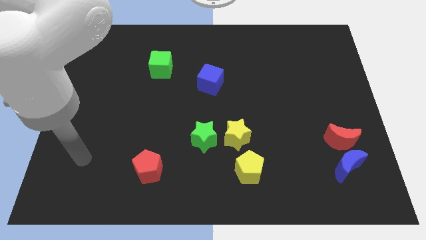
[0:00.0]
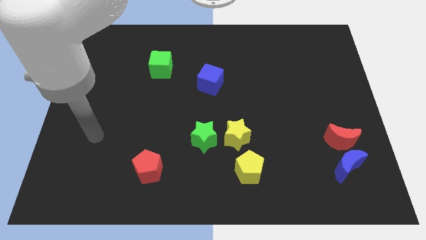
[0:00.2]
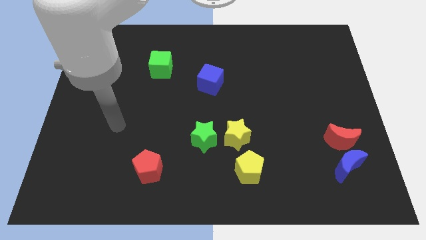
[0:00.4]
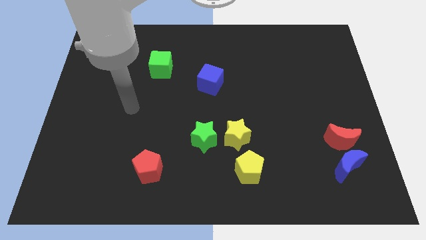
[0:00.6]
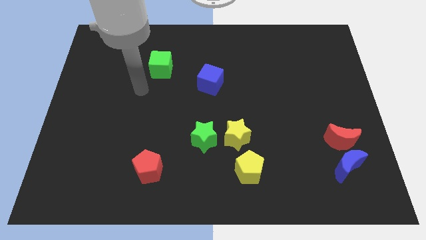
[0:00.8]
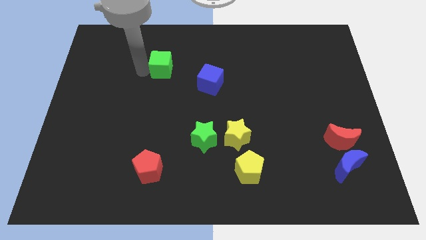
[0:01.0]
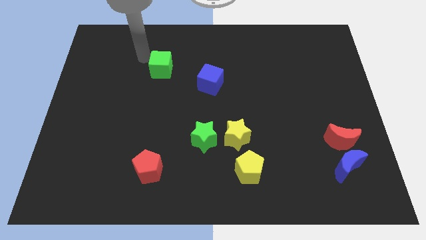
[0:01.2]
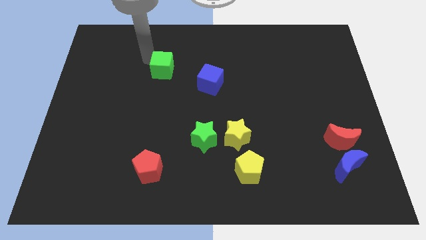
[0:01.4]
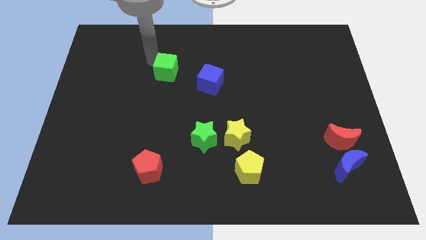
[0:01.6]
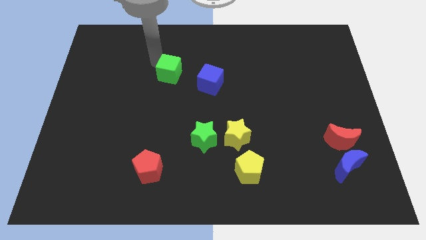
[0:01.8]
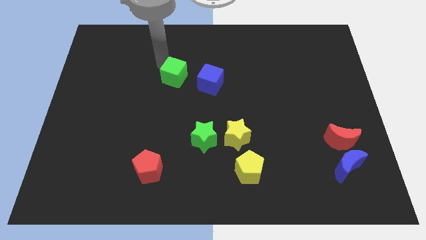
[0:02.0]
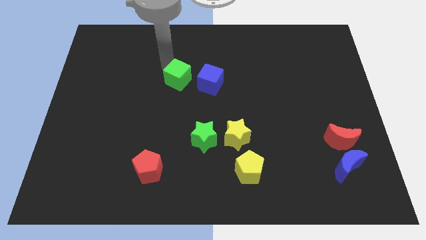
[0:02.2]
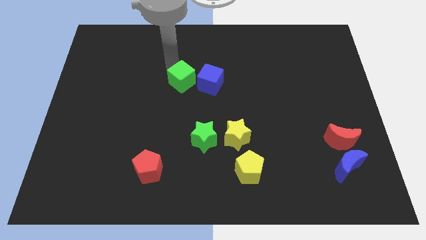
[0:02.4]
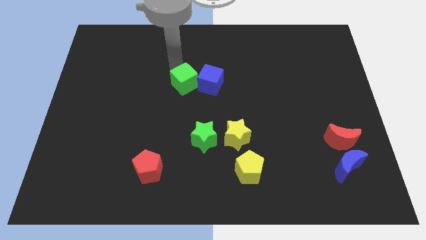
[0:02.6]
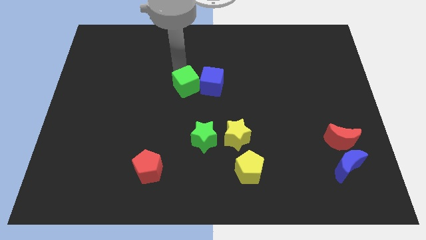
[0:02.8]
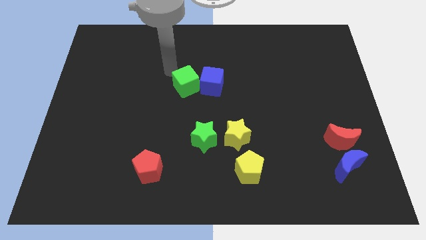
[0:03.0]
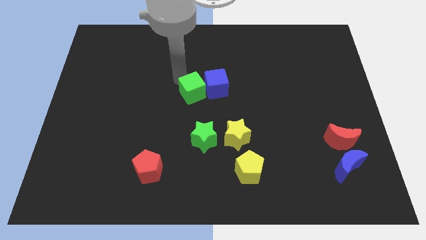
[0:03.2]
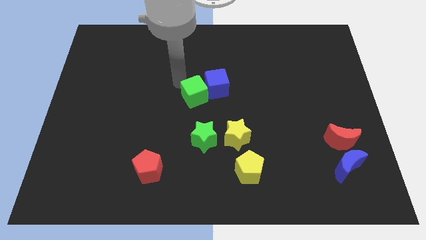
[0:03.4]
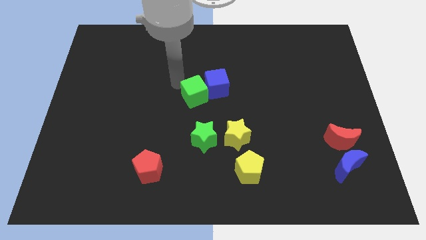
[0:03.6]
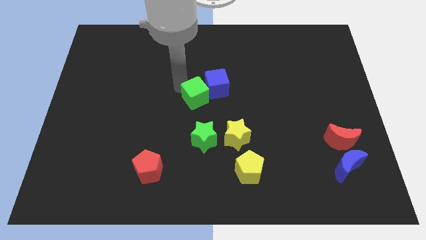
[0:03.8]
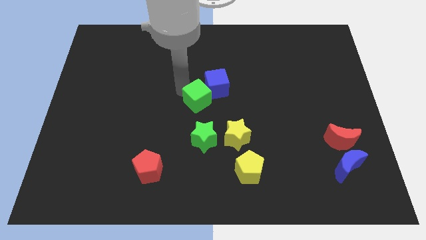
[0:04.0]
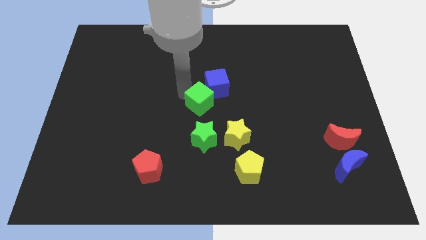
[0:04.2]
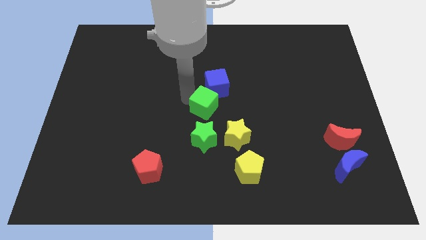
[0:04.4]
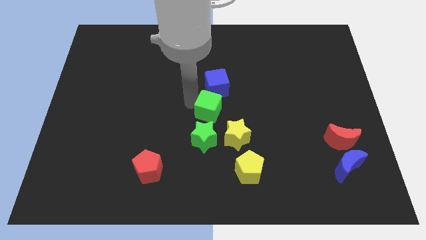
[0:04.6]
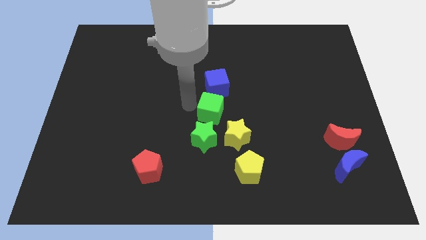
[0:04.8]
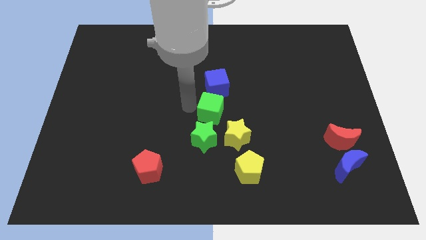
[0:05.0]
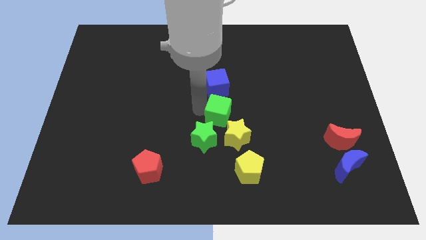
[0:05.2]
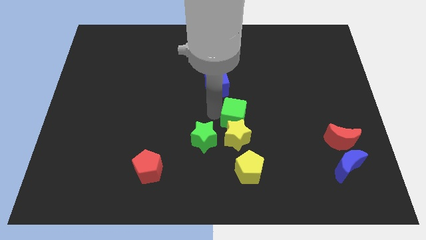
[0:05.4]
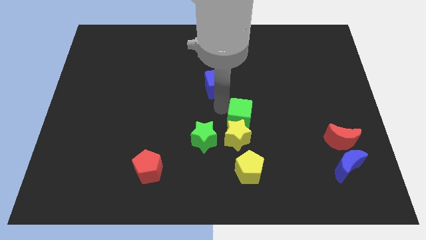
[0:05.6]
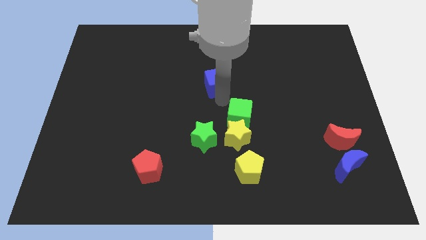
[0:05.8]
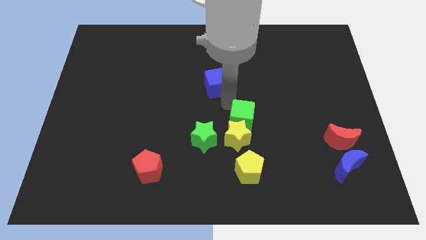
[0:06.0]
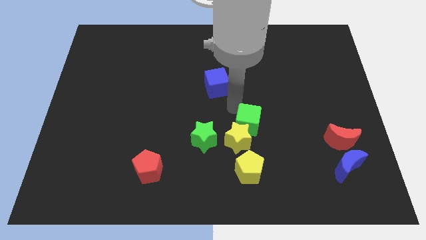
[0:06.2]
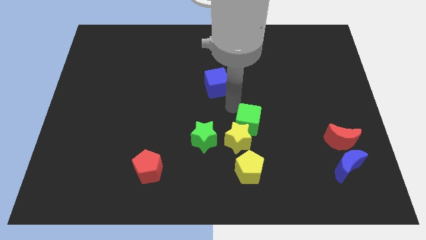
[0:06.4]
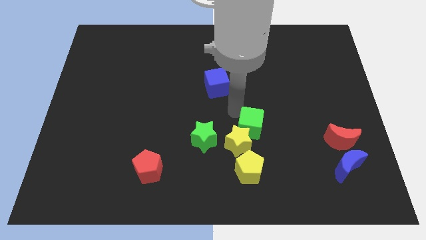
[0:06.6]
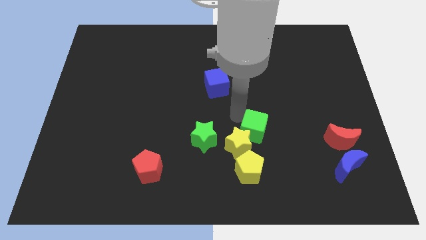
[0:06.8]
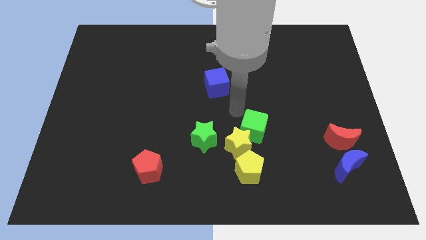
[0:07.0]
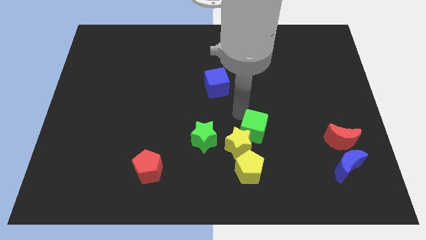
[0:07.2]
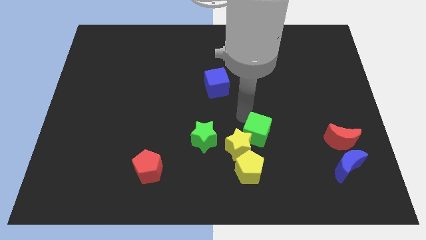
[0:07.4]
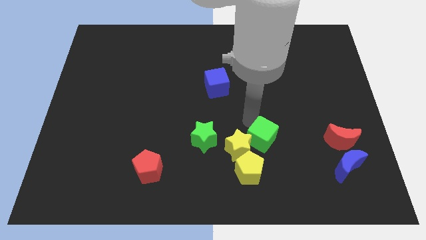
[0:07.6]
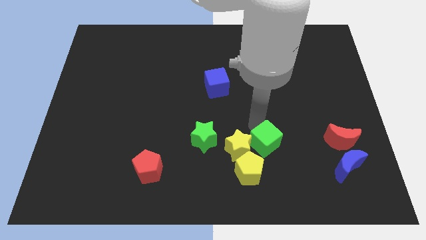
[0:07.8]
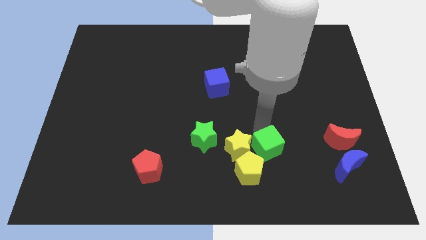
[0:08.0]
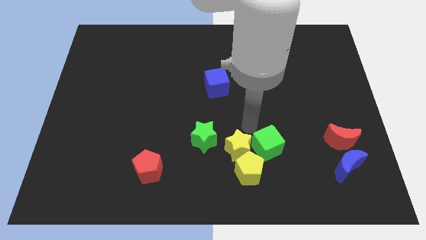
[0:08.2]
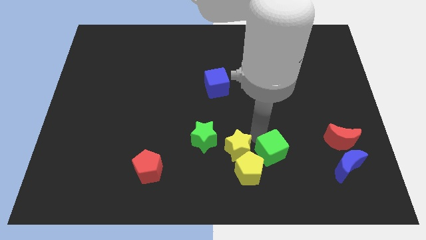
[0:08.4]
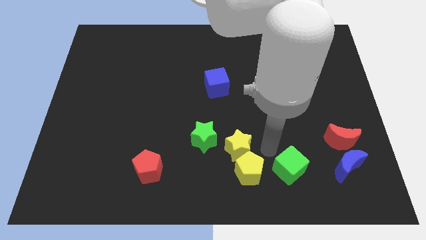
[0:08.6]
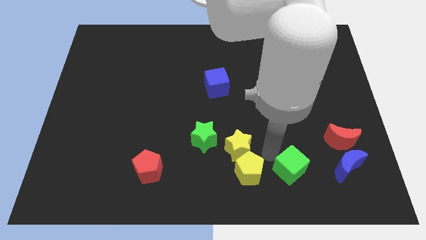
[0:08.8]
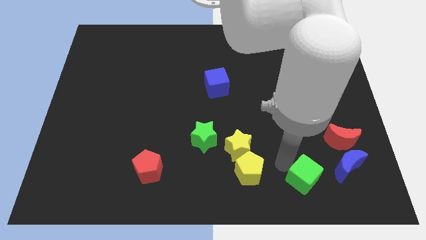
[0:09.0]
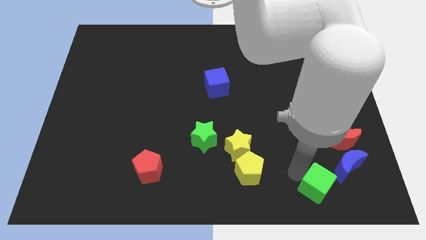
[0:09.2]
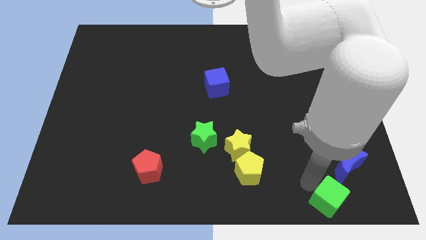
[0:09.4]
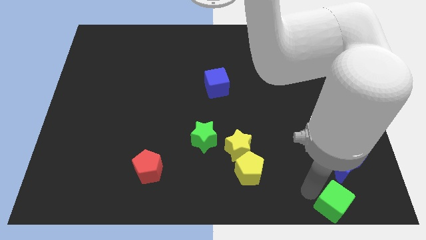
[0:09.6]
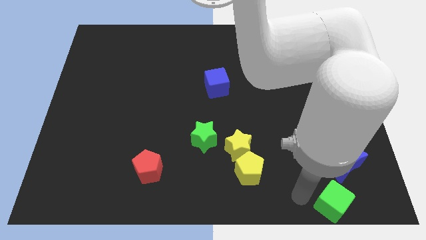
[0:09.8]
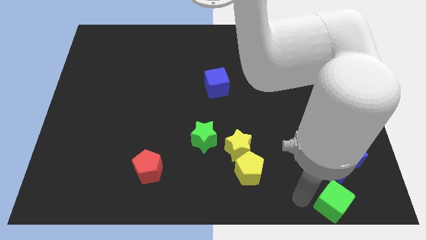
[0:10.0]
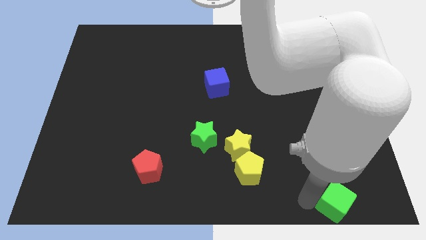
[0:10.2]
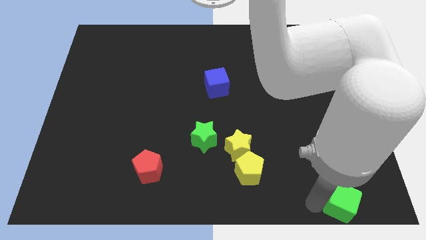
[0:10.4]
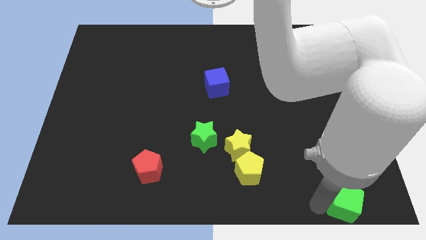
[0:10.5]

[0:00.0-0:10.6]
move the green cube to the bottom right
